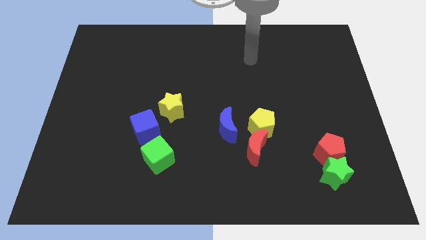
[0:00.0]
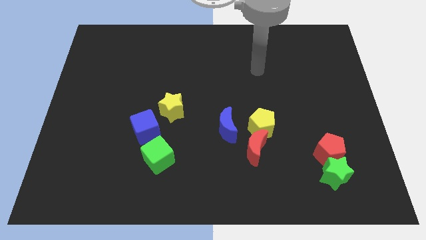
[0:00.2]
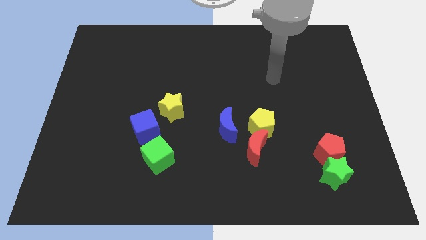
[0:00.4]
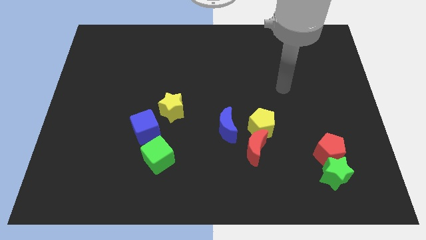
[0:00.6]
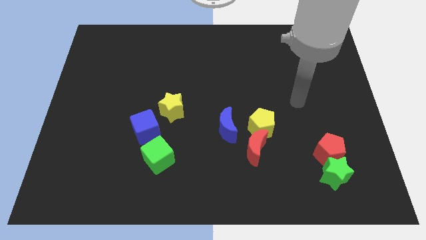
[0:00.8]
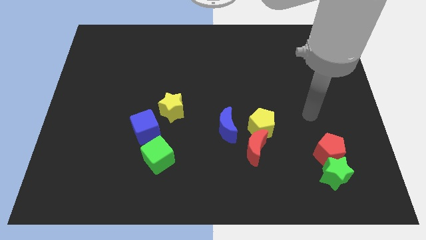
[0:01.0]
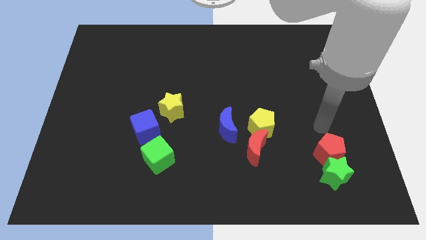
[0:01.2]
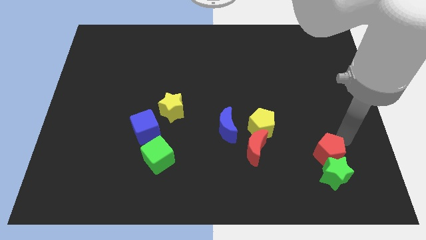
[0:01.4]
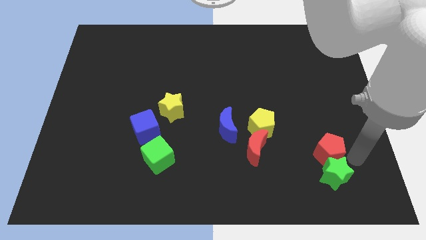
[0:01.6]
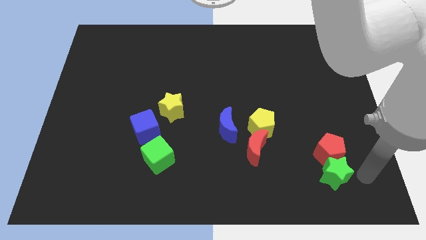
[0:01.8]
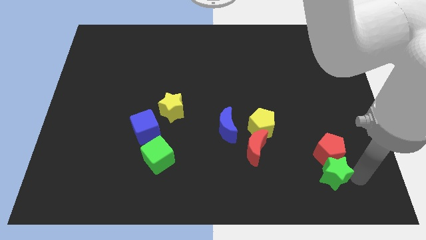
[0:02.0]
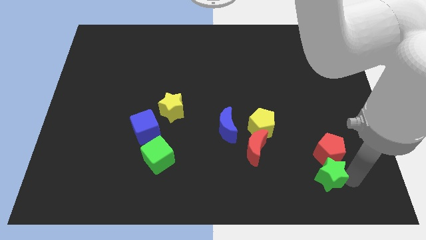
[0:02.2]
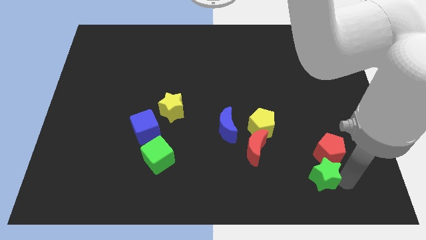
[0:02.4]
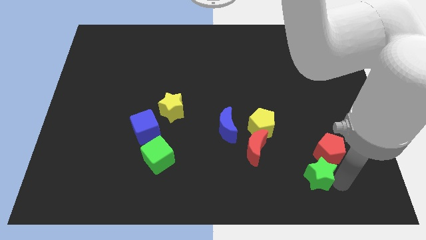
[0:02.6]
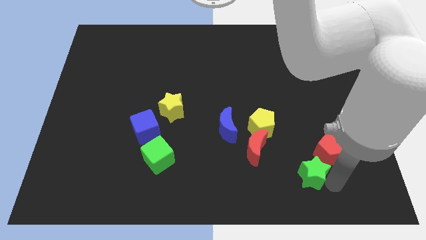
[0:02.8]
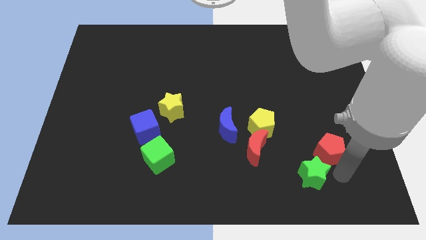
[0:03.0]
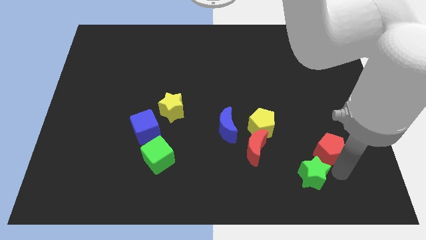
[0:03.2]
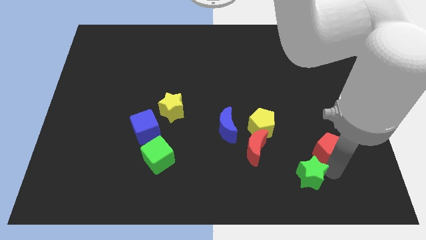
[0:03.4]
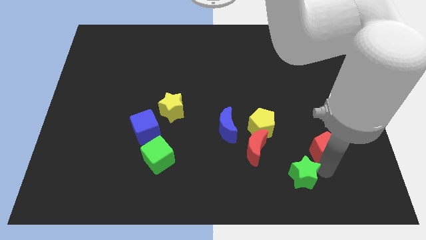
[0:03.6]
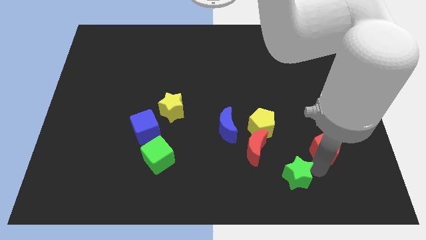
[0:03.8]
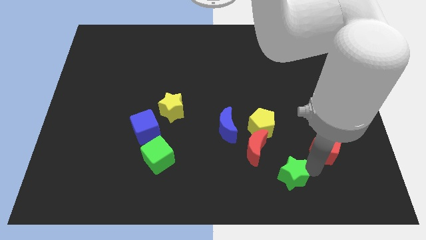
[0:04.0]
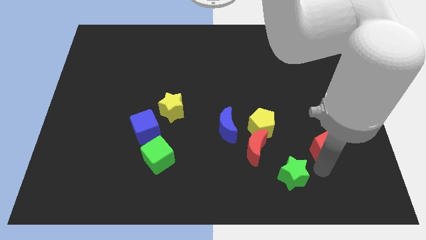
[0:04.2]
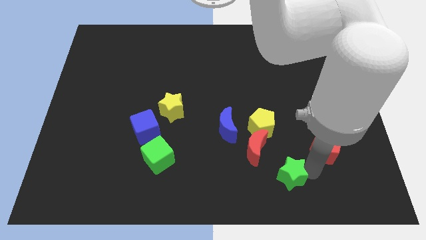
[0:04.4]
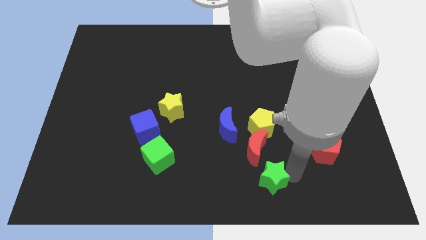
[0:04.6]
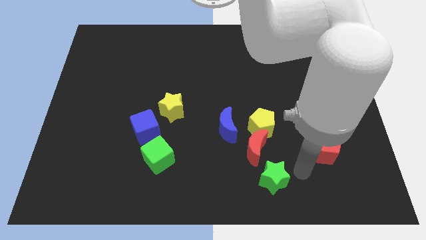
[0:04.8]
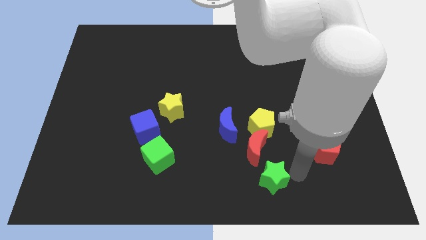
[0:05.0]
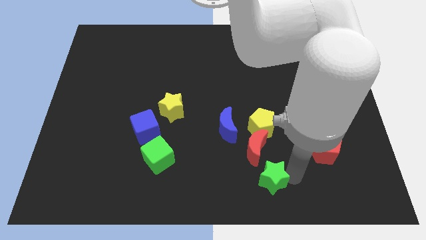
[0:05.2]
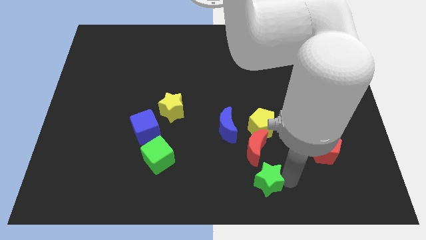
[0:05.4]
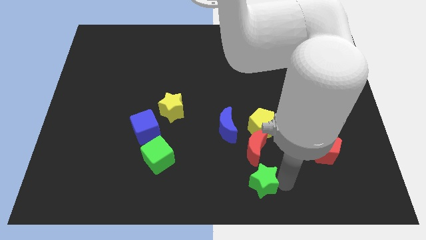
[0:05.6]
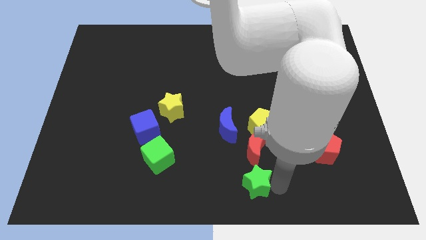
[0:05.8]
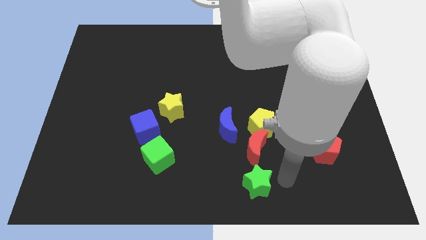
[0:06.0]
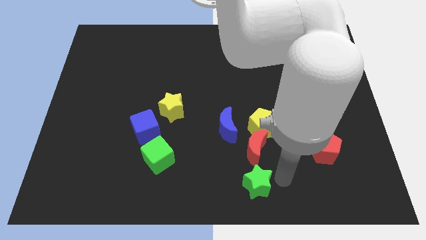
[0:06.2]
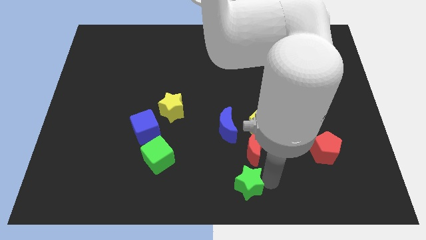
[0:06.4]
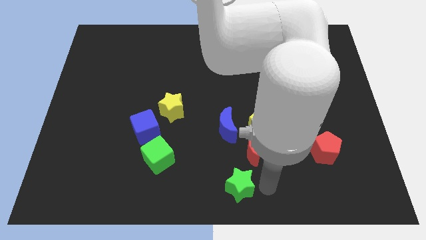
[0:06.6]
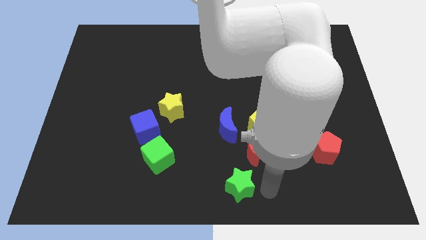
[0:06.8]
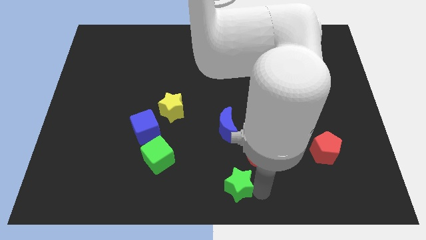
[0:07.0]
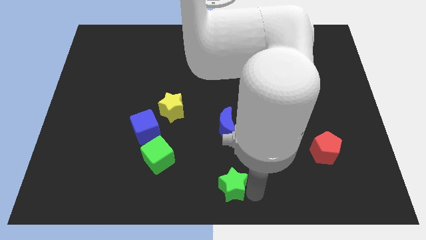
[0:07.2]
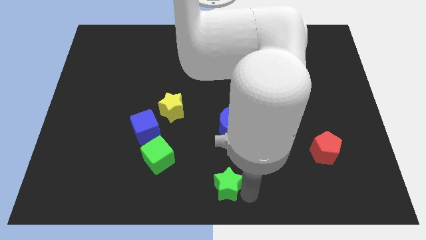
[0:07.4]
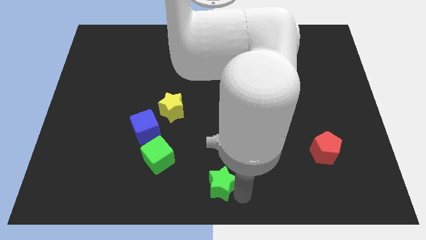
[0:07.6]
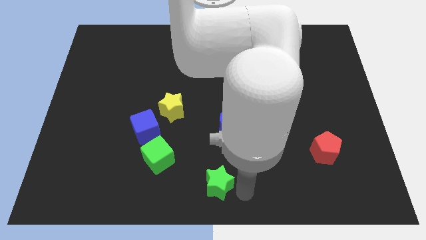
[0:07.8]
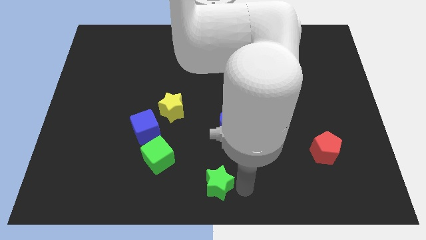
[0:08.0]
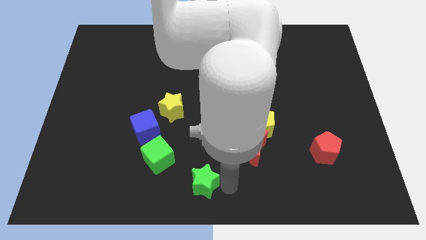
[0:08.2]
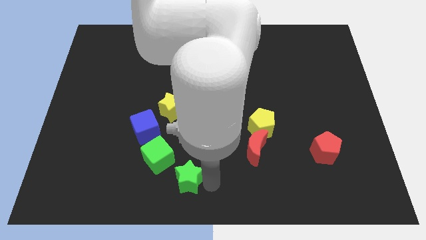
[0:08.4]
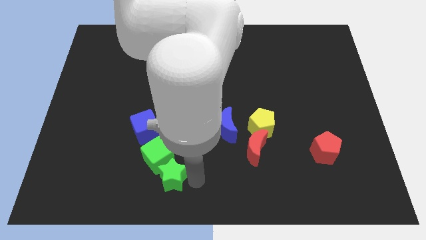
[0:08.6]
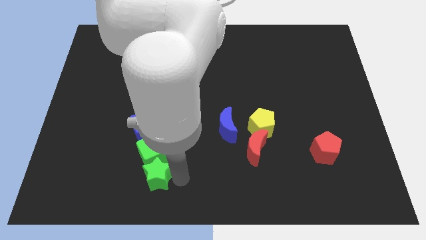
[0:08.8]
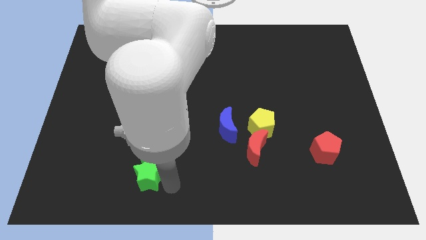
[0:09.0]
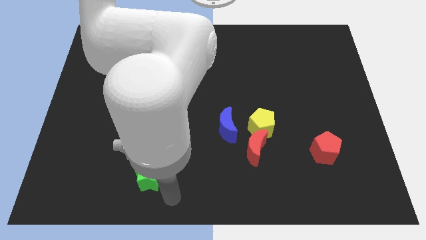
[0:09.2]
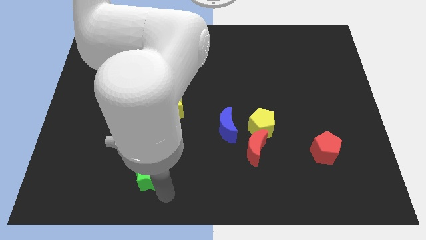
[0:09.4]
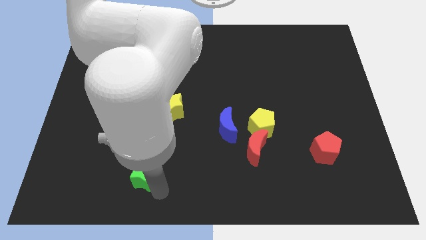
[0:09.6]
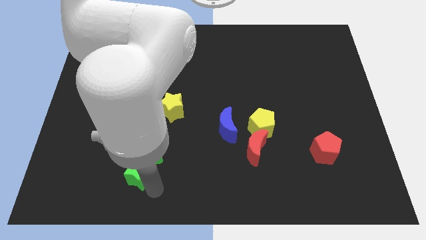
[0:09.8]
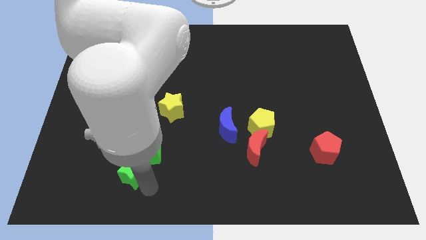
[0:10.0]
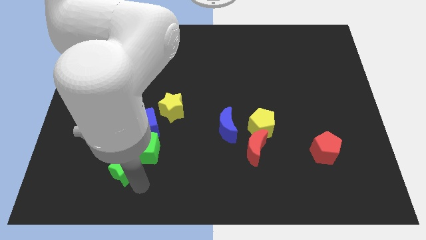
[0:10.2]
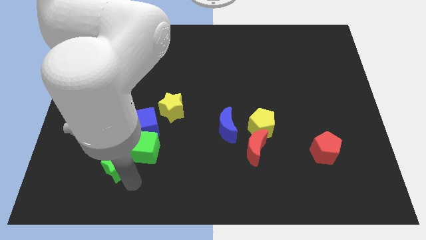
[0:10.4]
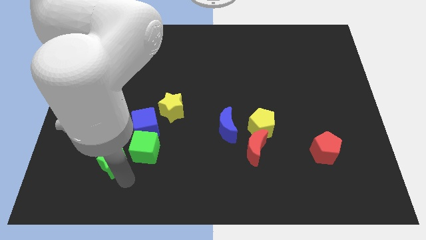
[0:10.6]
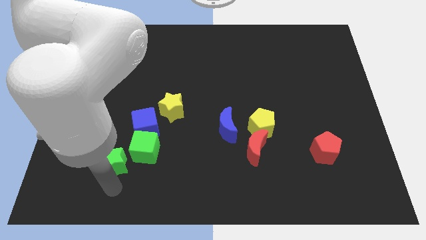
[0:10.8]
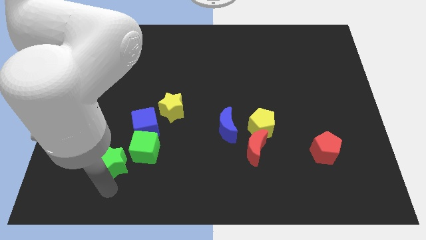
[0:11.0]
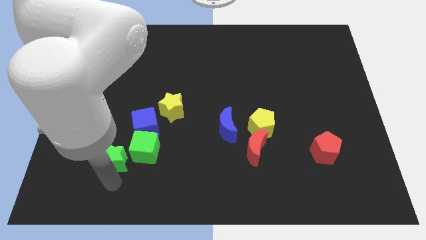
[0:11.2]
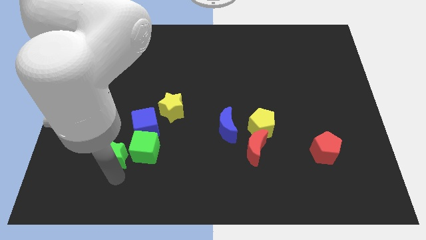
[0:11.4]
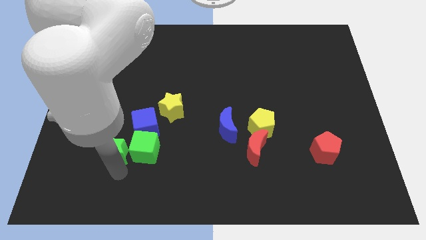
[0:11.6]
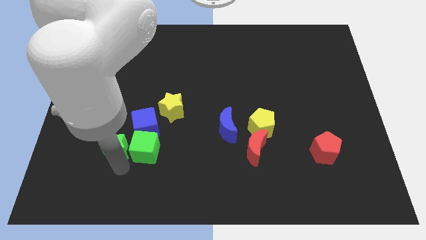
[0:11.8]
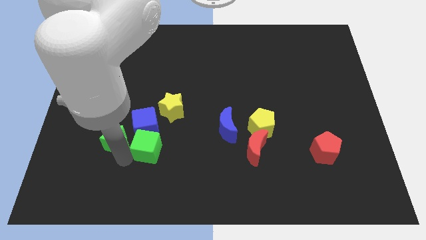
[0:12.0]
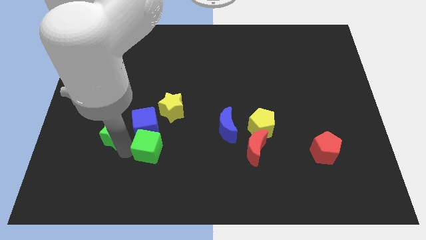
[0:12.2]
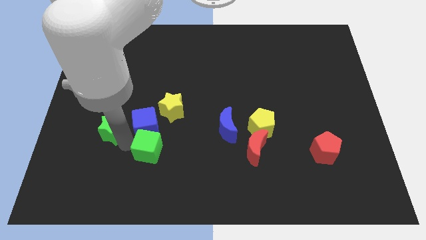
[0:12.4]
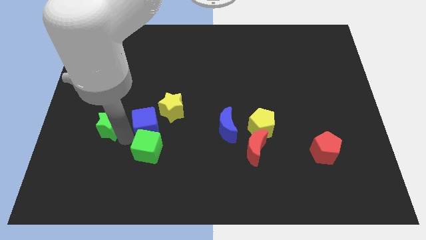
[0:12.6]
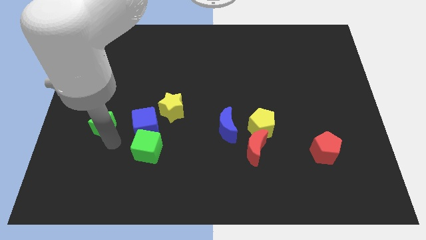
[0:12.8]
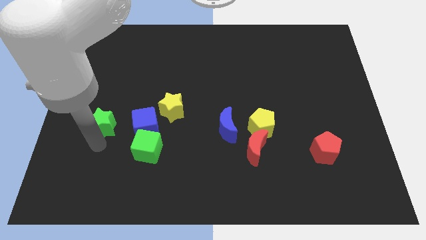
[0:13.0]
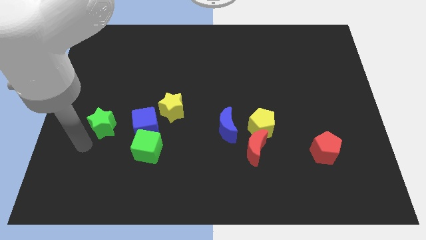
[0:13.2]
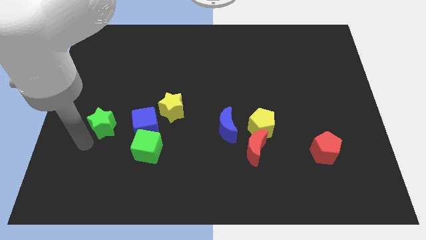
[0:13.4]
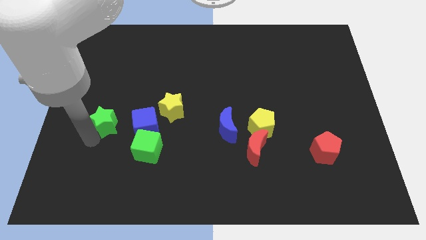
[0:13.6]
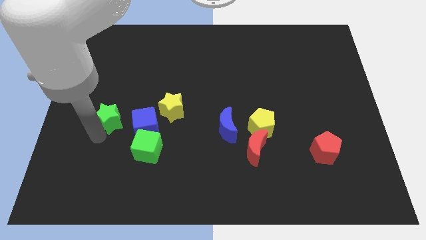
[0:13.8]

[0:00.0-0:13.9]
slide the green star diagonally up and to the left of the blue cube
